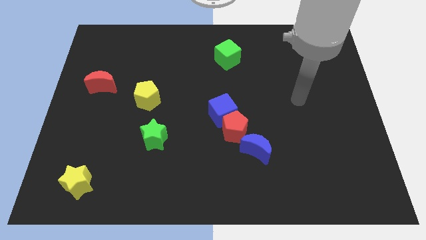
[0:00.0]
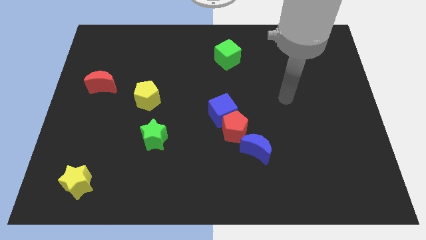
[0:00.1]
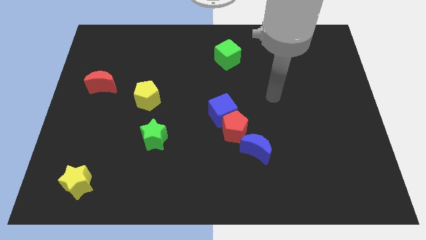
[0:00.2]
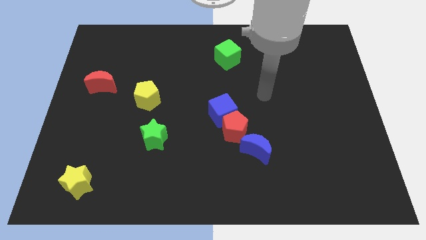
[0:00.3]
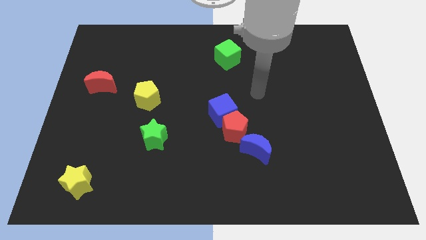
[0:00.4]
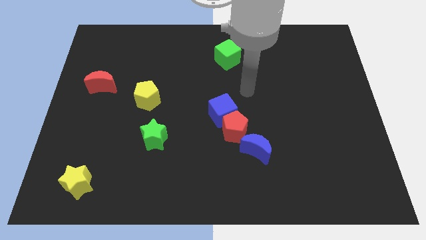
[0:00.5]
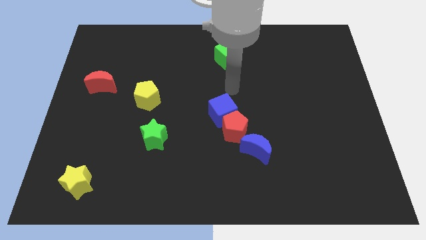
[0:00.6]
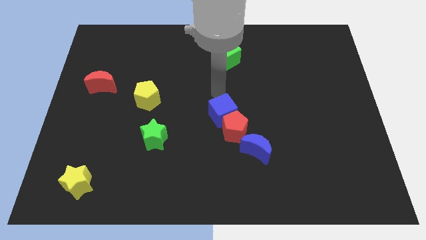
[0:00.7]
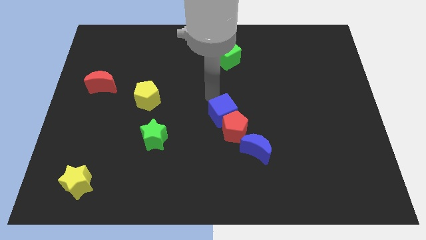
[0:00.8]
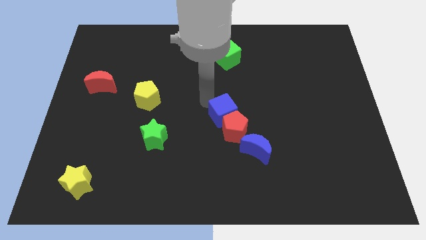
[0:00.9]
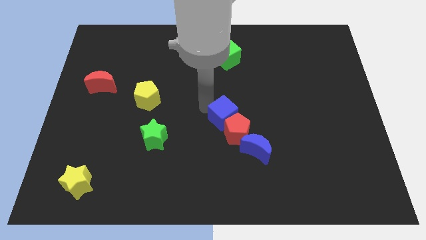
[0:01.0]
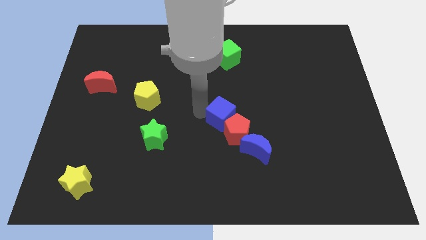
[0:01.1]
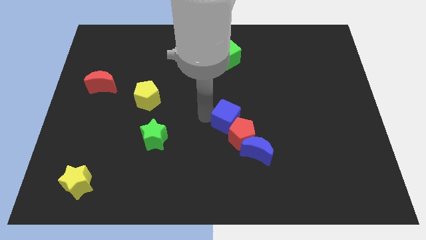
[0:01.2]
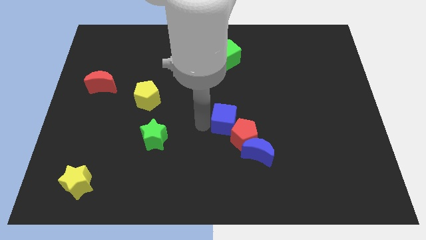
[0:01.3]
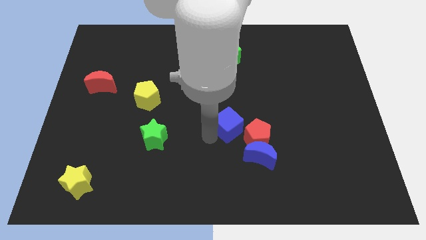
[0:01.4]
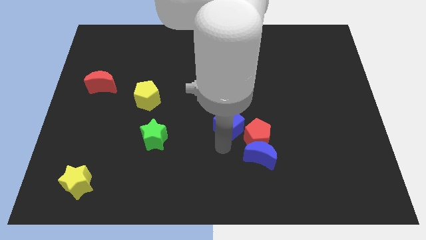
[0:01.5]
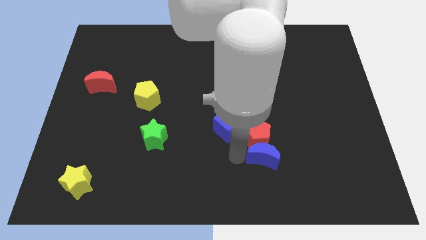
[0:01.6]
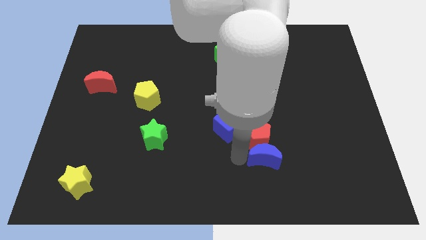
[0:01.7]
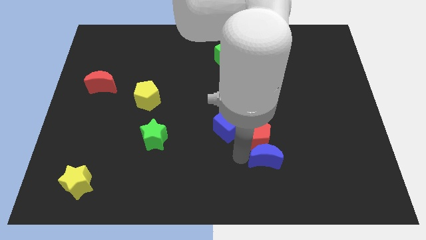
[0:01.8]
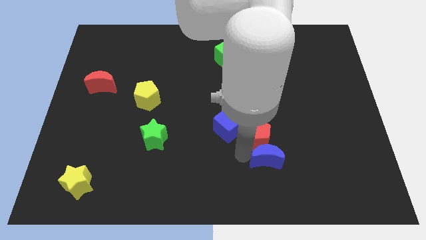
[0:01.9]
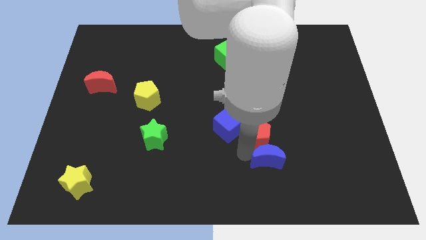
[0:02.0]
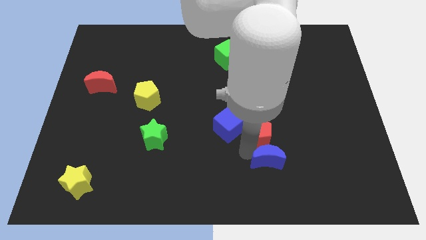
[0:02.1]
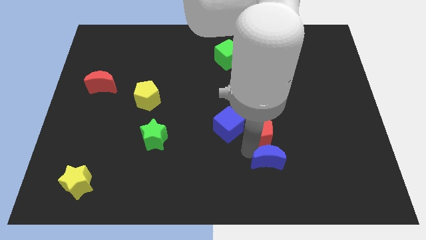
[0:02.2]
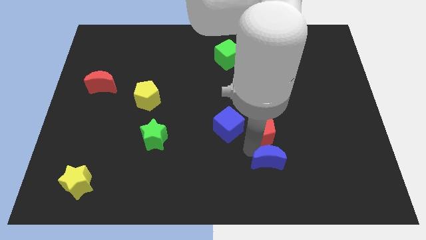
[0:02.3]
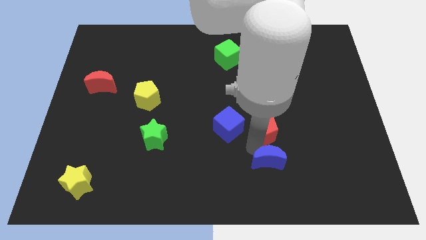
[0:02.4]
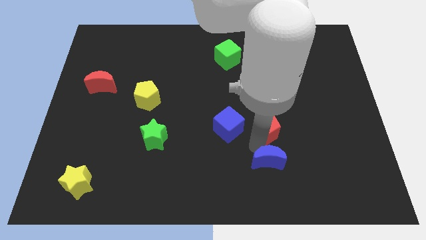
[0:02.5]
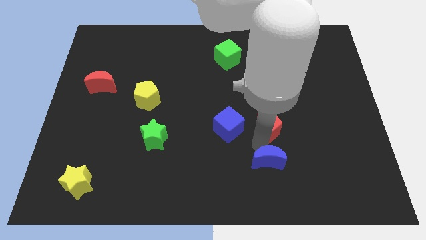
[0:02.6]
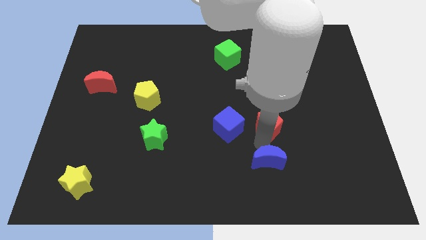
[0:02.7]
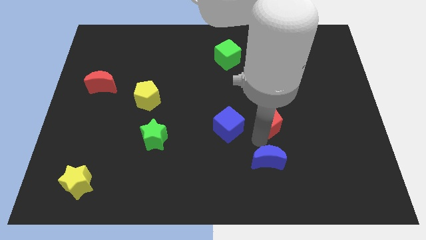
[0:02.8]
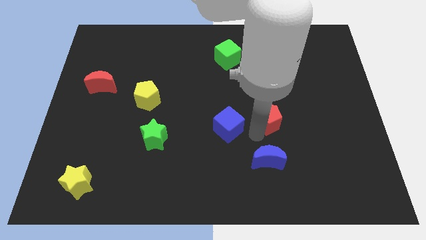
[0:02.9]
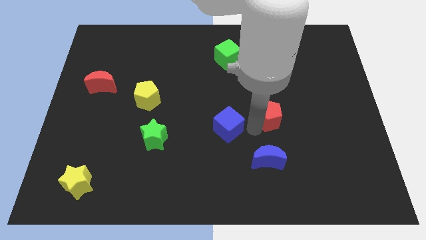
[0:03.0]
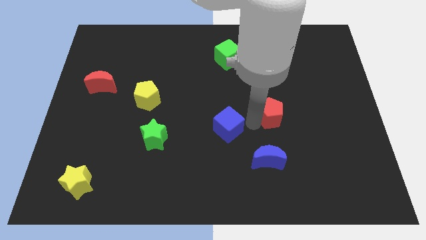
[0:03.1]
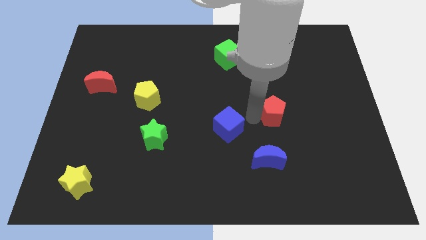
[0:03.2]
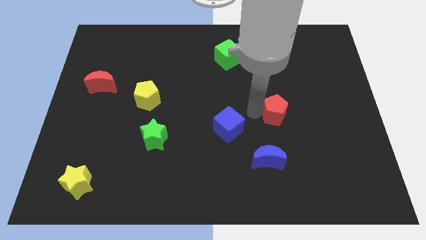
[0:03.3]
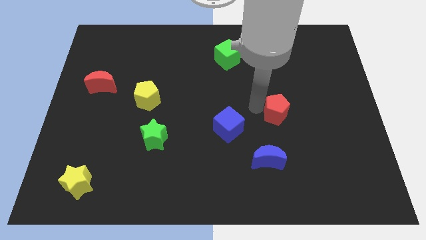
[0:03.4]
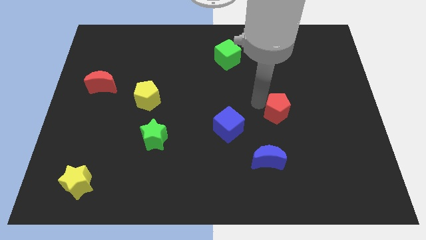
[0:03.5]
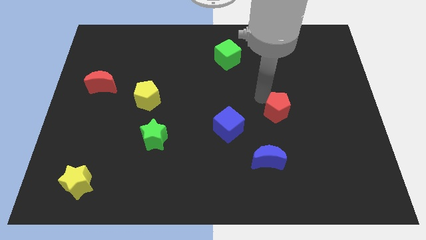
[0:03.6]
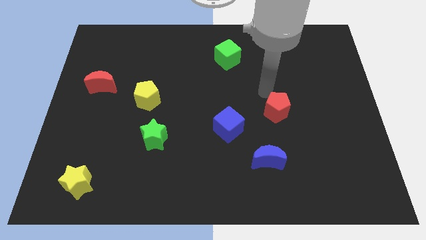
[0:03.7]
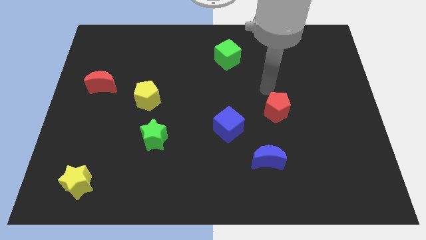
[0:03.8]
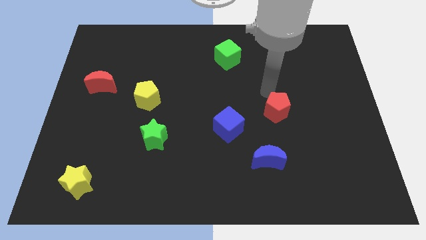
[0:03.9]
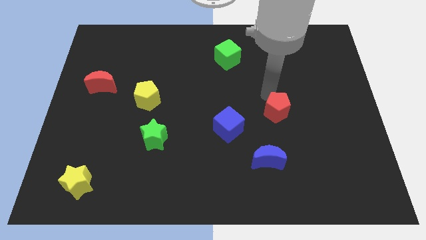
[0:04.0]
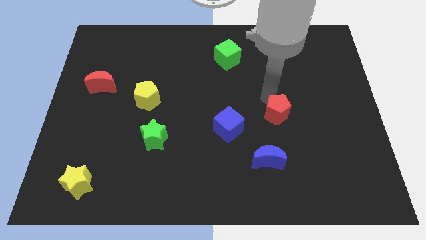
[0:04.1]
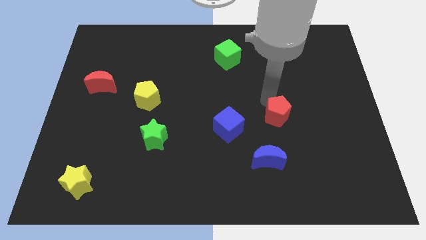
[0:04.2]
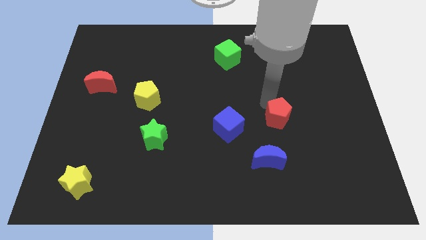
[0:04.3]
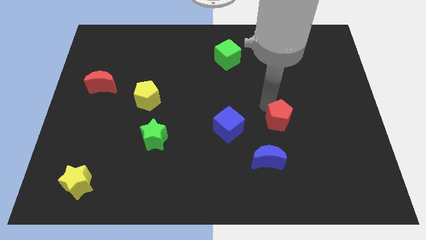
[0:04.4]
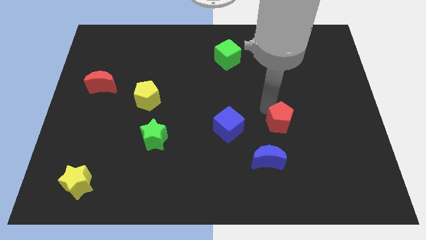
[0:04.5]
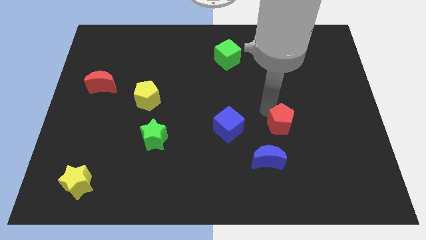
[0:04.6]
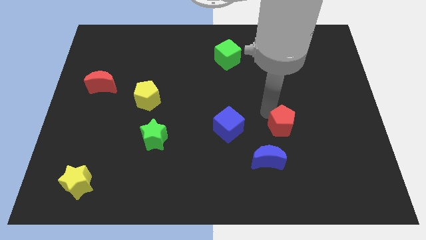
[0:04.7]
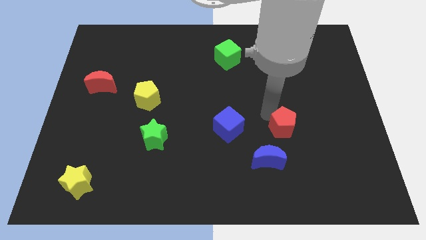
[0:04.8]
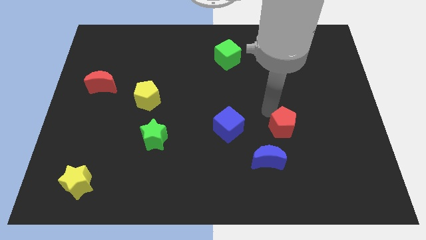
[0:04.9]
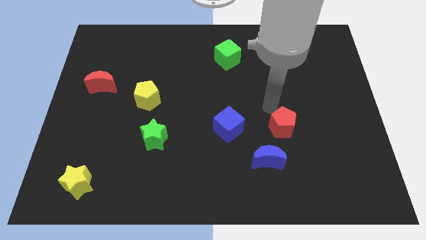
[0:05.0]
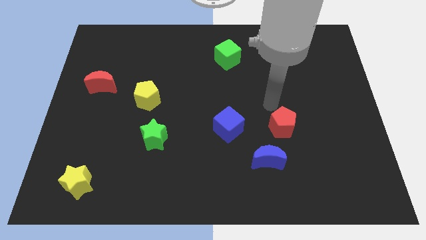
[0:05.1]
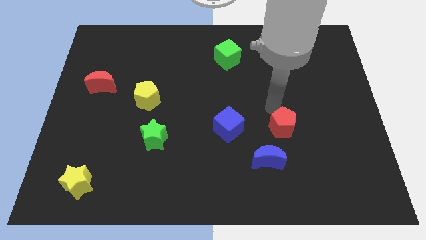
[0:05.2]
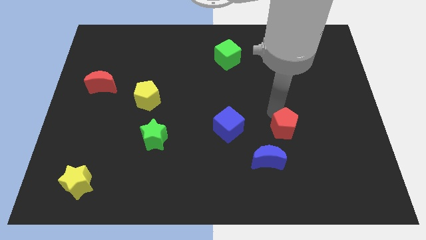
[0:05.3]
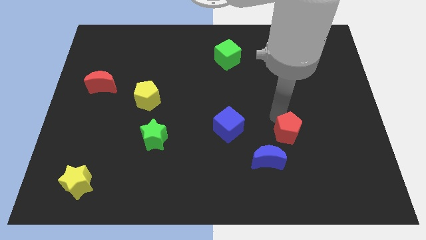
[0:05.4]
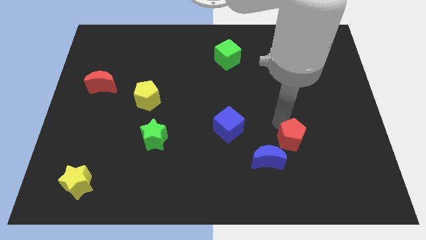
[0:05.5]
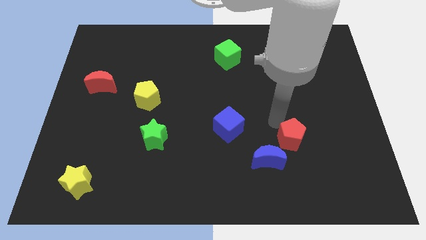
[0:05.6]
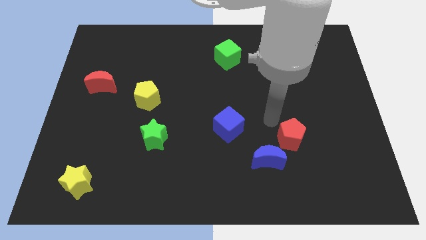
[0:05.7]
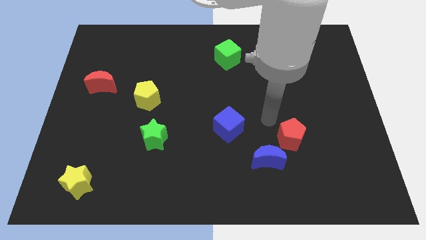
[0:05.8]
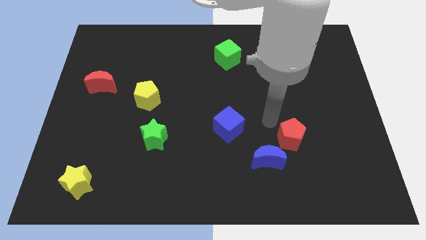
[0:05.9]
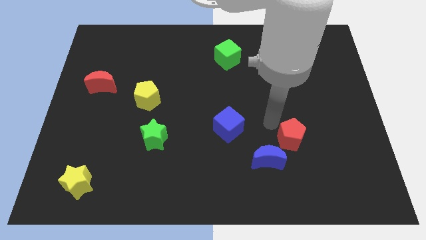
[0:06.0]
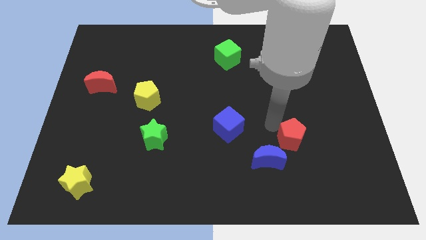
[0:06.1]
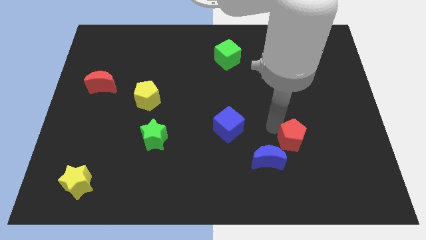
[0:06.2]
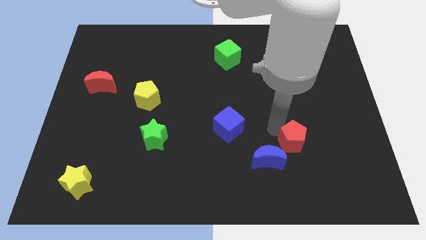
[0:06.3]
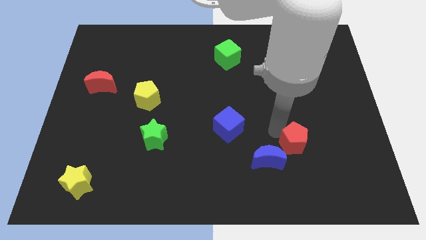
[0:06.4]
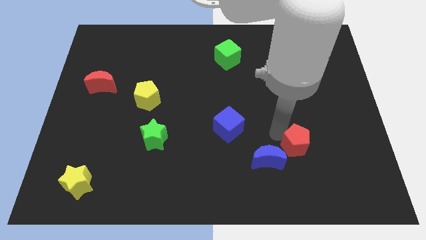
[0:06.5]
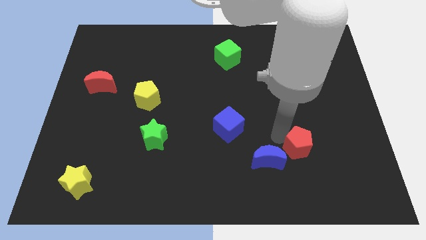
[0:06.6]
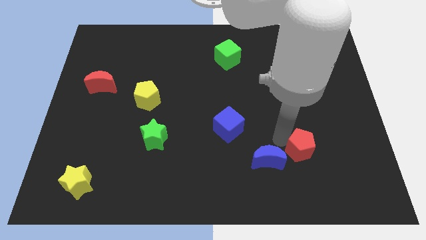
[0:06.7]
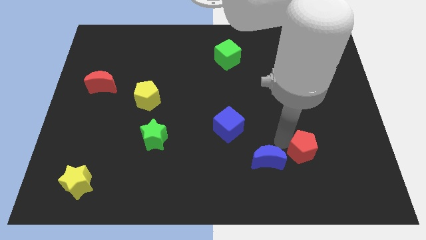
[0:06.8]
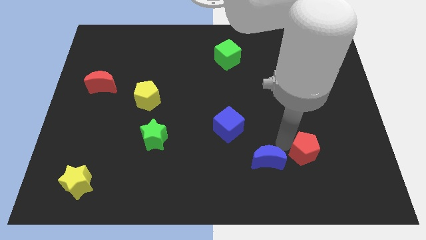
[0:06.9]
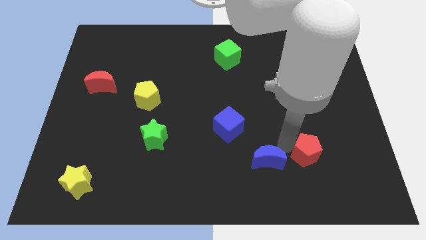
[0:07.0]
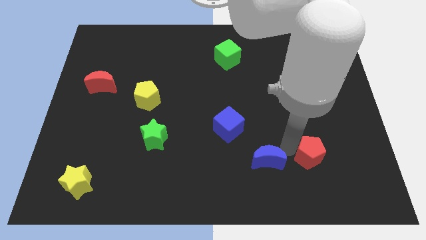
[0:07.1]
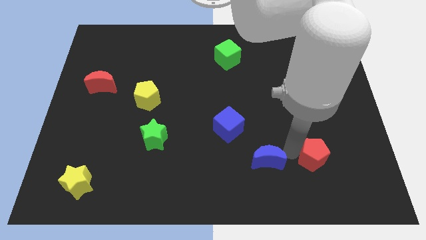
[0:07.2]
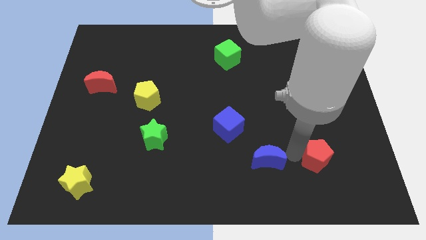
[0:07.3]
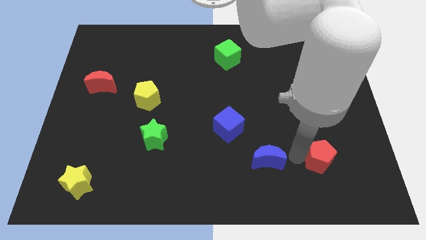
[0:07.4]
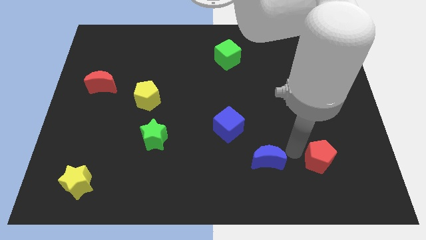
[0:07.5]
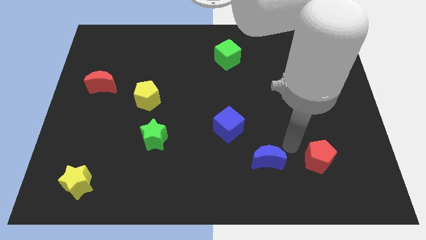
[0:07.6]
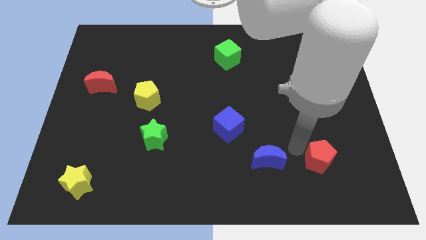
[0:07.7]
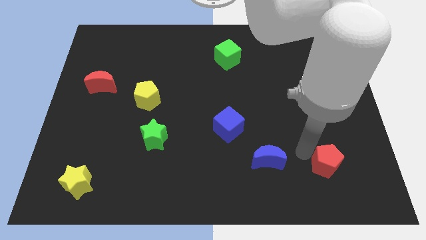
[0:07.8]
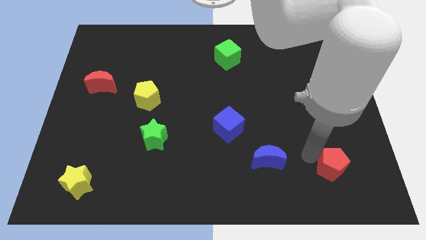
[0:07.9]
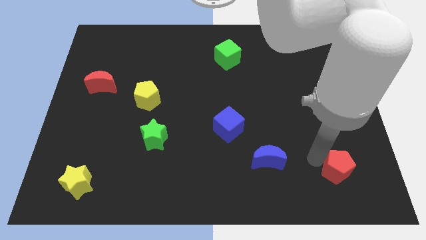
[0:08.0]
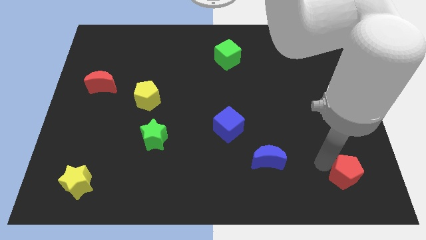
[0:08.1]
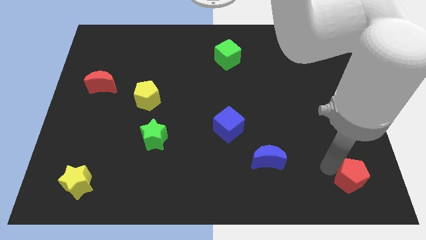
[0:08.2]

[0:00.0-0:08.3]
move the red pentagon to the bottom right corner
